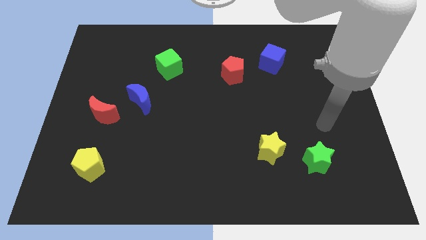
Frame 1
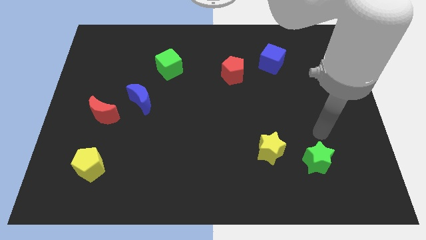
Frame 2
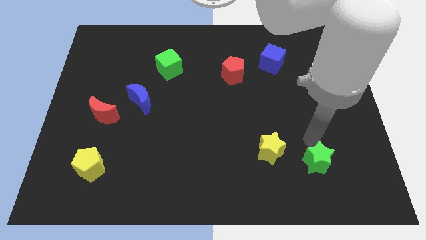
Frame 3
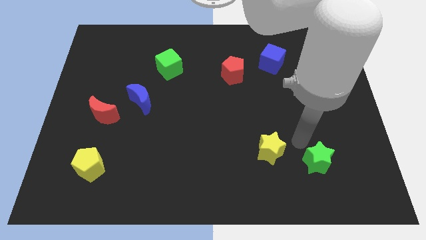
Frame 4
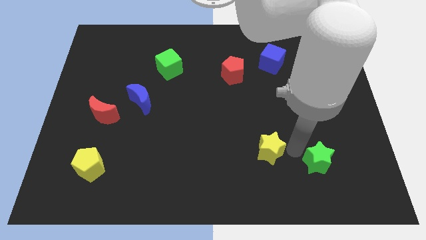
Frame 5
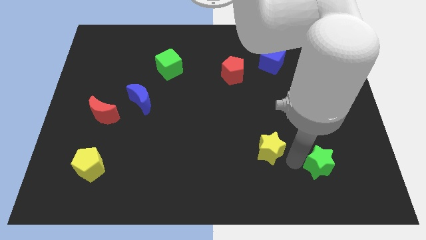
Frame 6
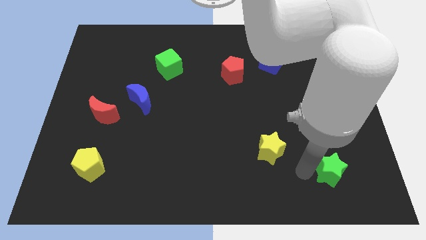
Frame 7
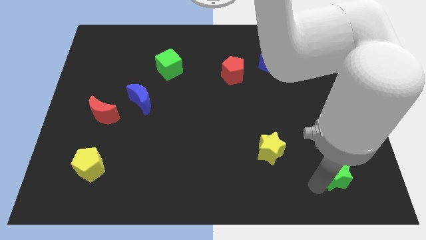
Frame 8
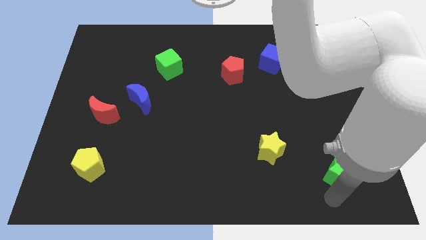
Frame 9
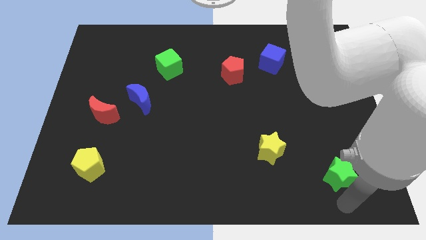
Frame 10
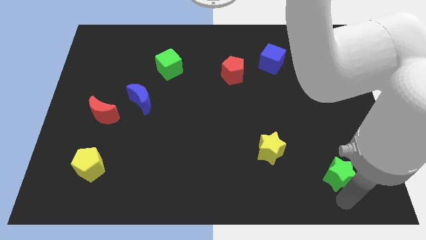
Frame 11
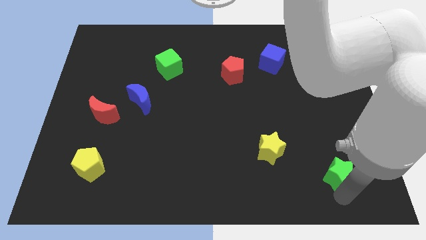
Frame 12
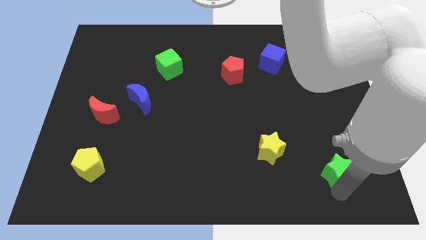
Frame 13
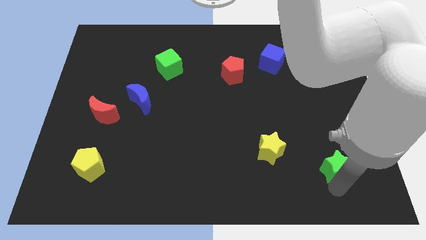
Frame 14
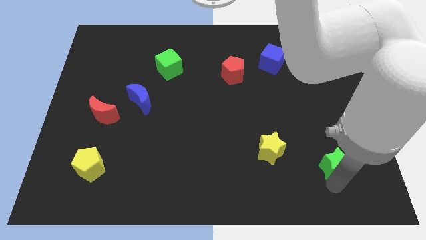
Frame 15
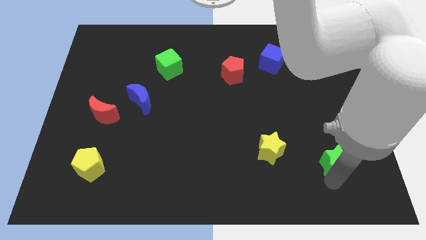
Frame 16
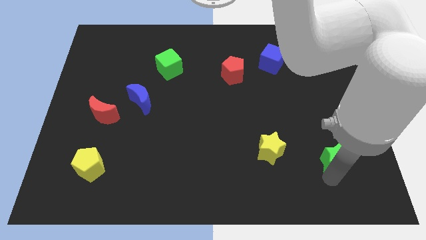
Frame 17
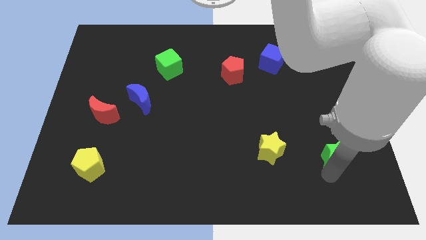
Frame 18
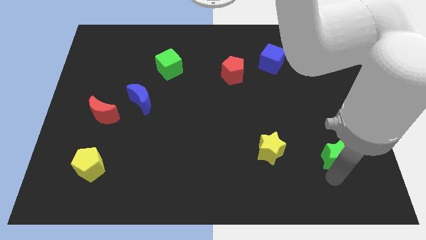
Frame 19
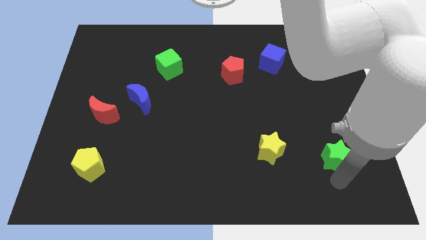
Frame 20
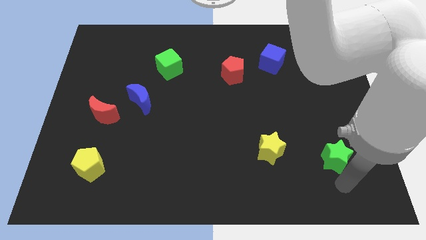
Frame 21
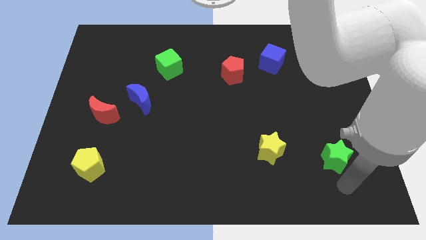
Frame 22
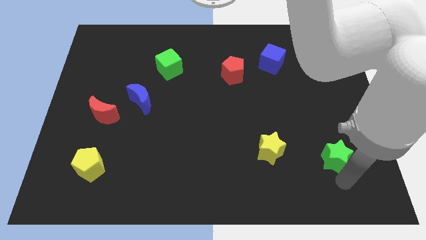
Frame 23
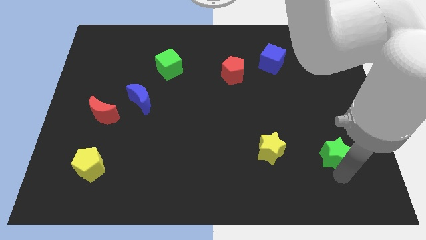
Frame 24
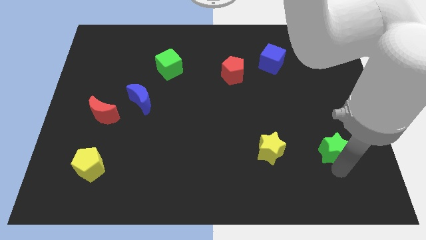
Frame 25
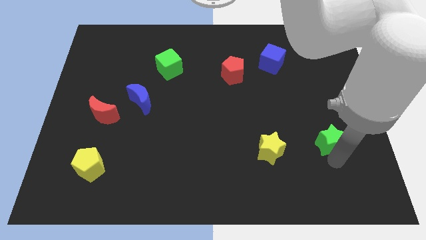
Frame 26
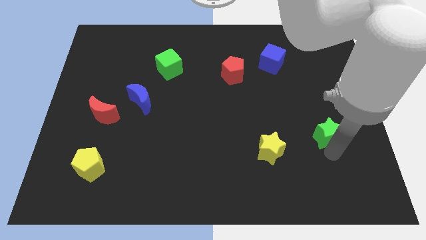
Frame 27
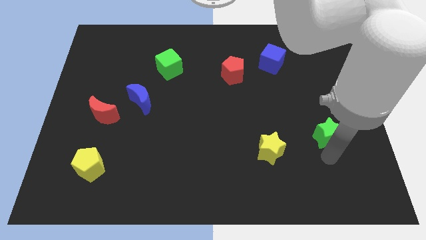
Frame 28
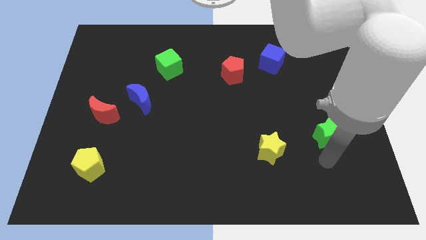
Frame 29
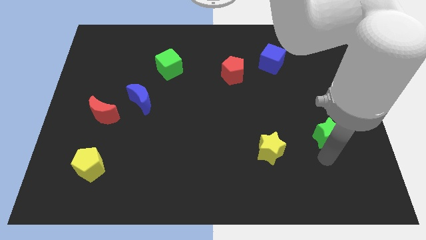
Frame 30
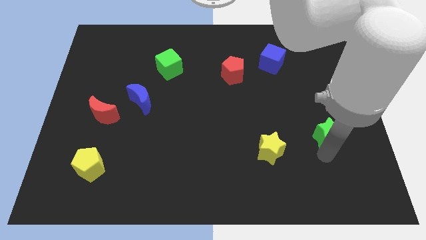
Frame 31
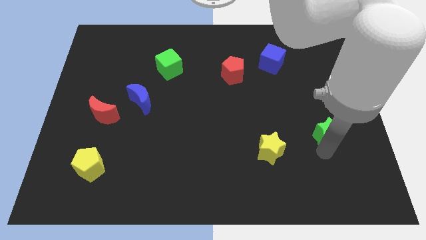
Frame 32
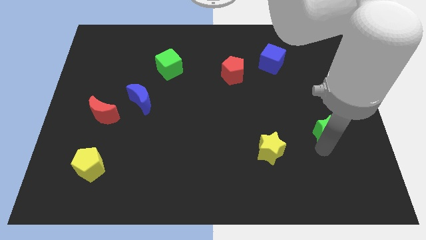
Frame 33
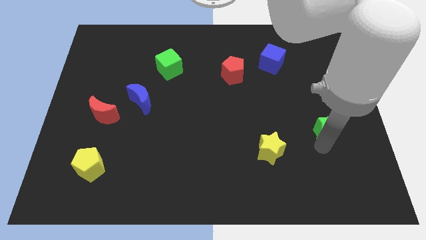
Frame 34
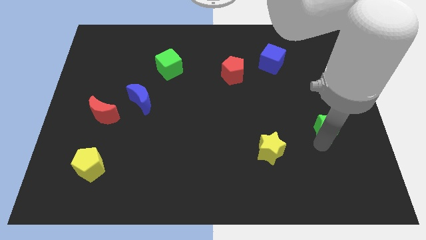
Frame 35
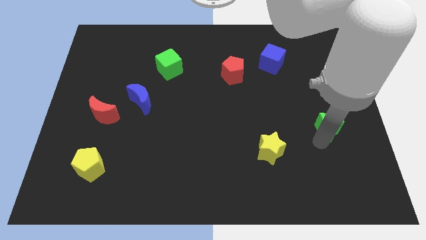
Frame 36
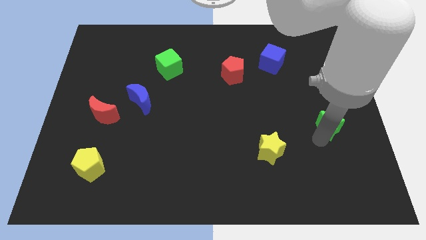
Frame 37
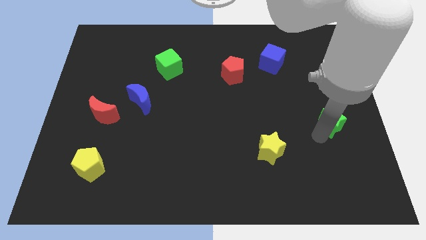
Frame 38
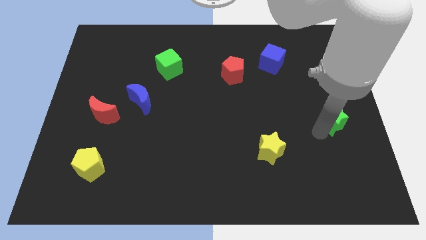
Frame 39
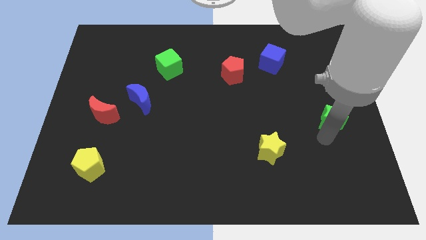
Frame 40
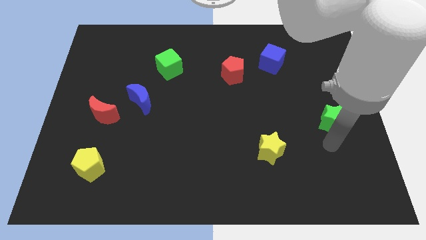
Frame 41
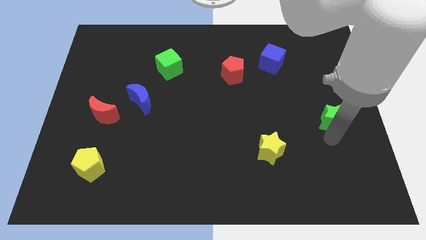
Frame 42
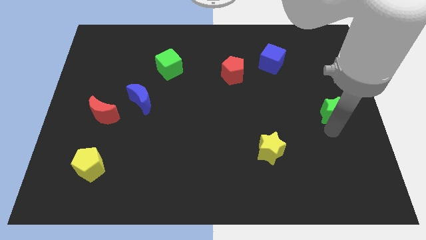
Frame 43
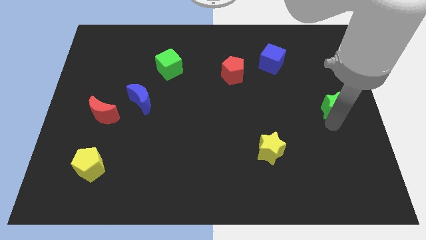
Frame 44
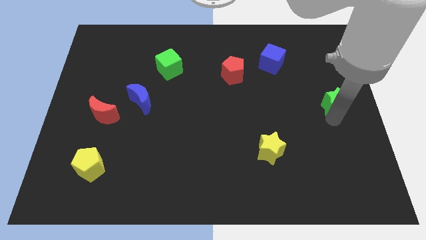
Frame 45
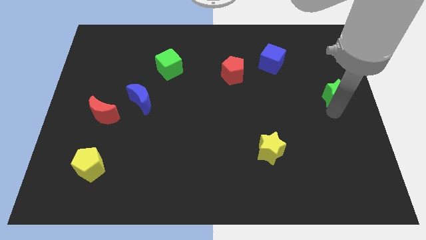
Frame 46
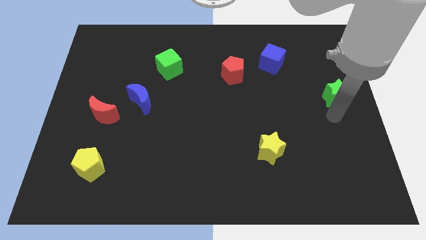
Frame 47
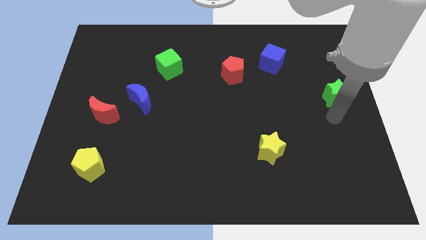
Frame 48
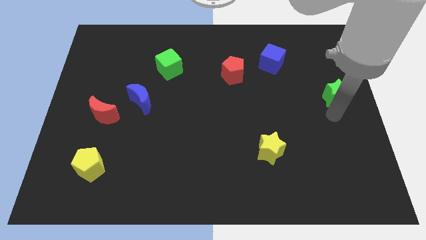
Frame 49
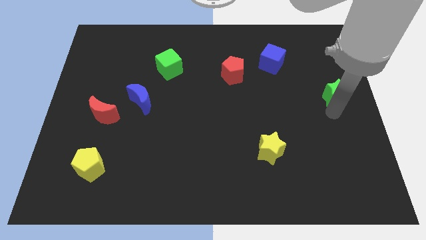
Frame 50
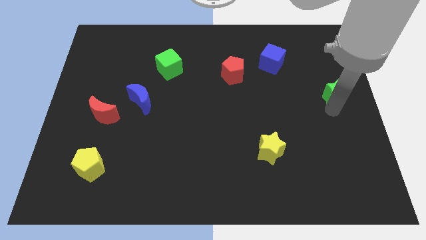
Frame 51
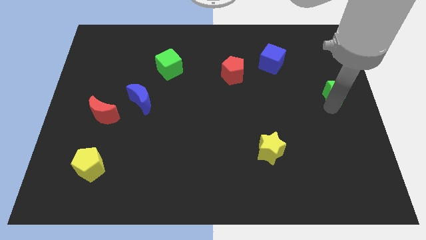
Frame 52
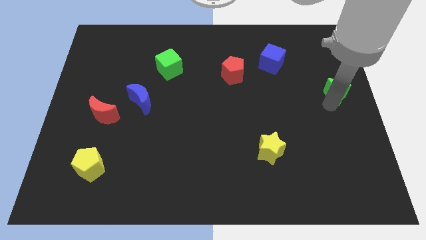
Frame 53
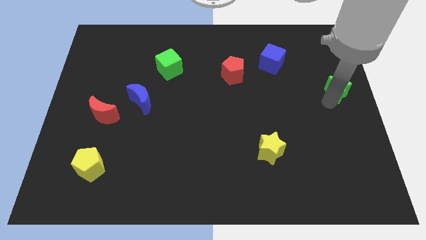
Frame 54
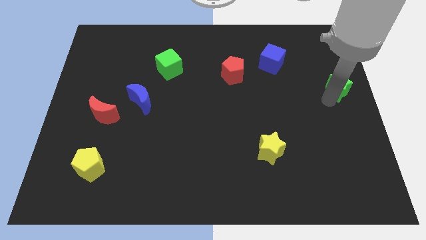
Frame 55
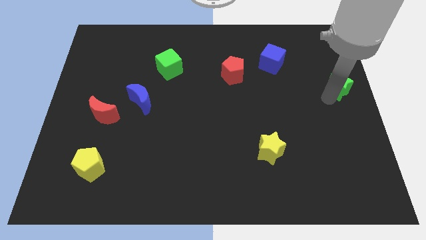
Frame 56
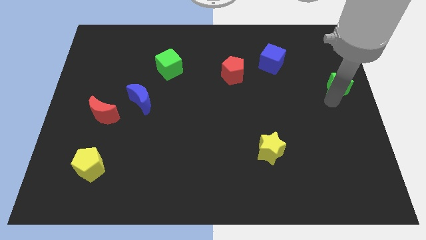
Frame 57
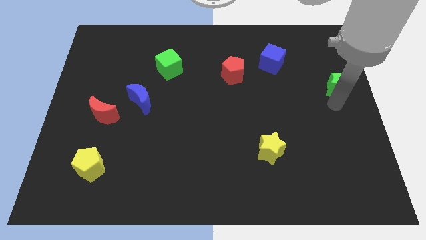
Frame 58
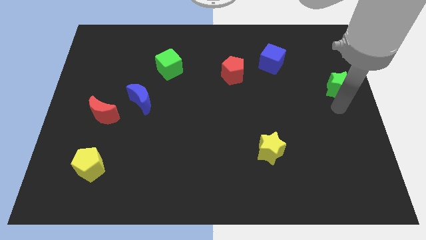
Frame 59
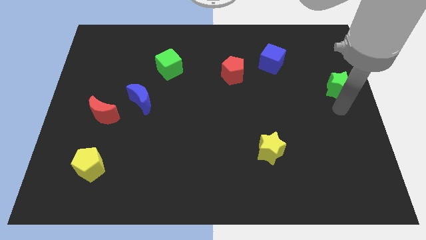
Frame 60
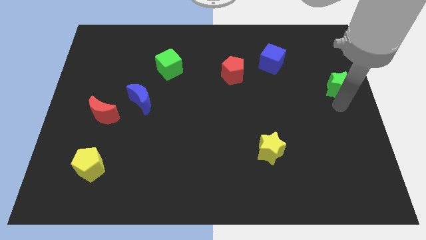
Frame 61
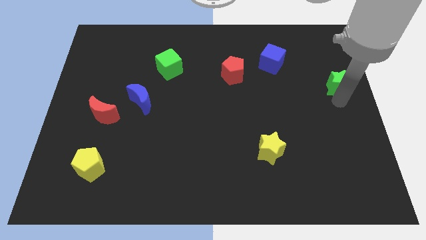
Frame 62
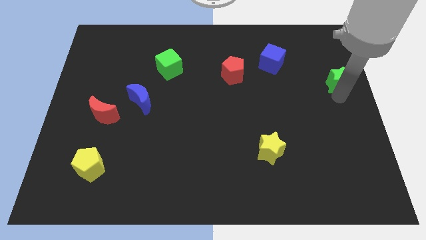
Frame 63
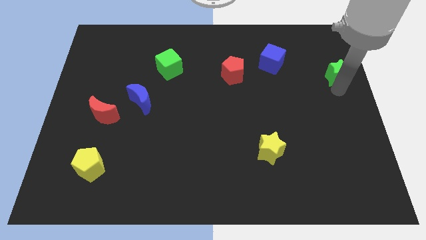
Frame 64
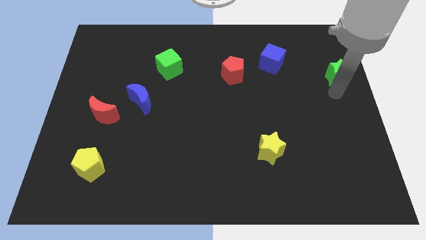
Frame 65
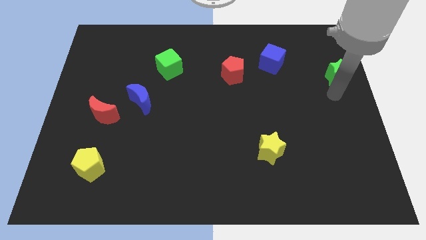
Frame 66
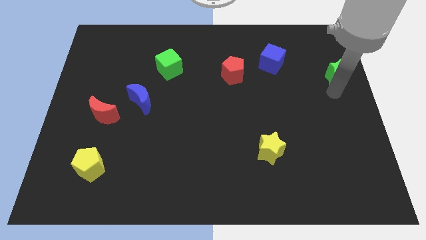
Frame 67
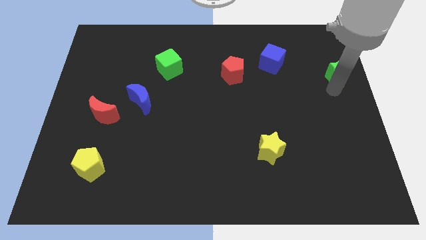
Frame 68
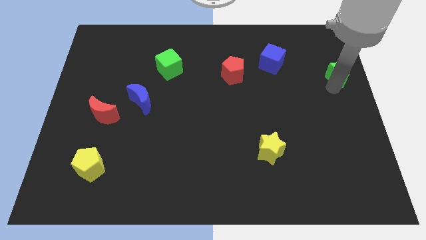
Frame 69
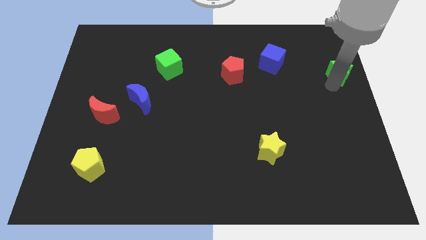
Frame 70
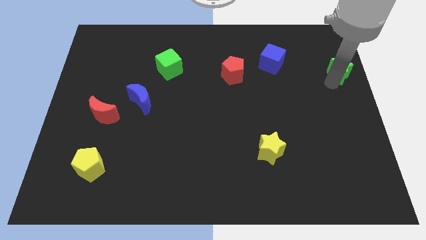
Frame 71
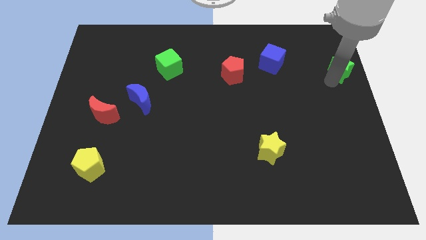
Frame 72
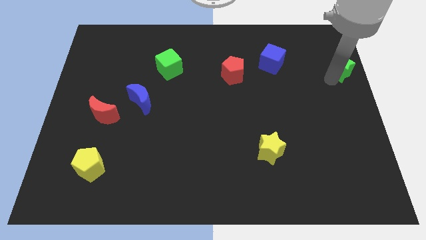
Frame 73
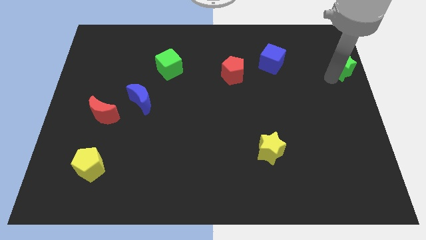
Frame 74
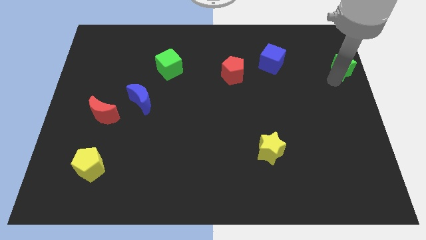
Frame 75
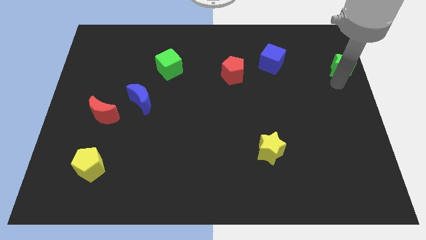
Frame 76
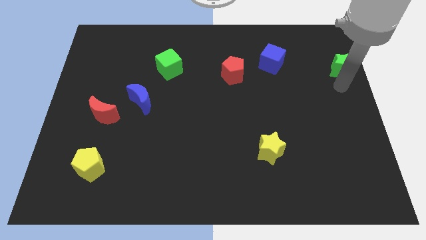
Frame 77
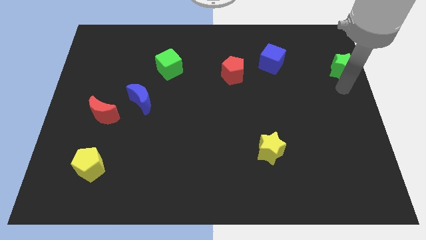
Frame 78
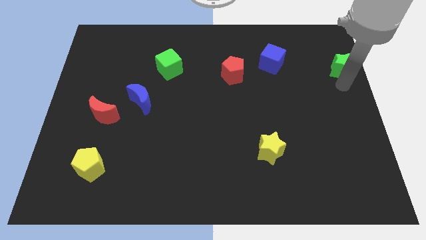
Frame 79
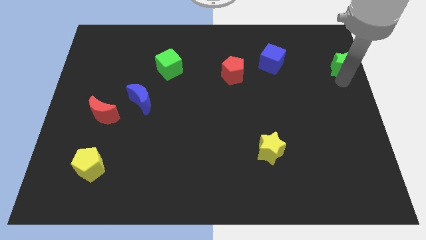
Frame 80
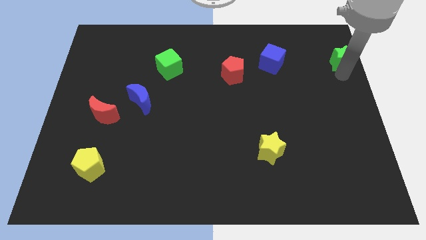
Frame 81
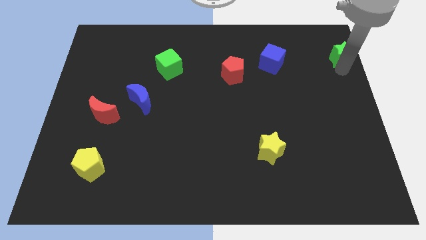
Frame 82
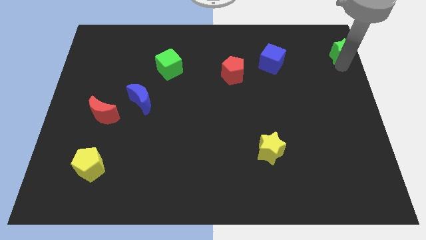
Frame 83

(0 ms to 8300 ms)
put the green star to the top right
